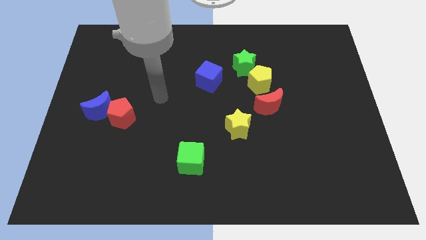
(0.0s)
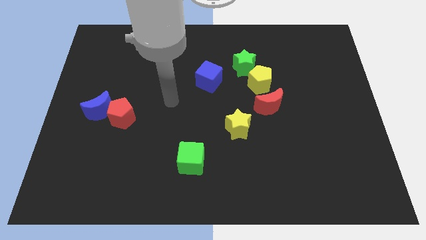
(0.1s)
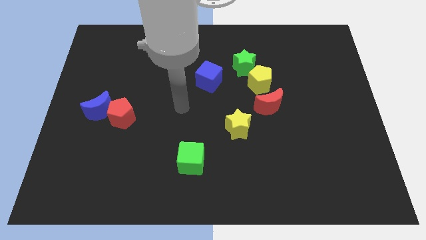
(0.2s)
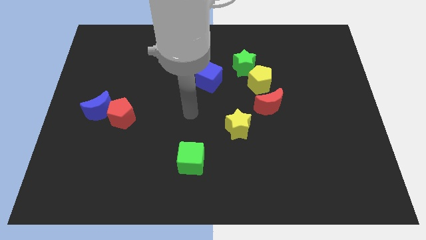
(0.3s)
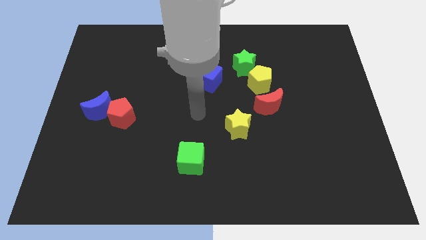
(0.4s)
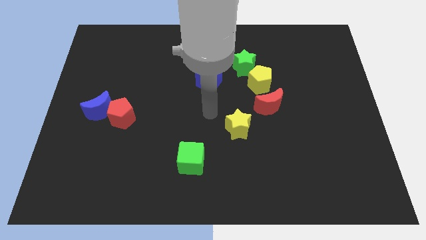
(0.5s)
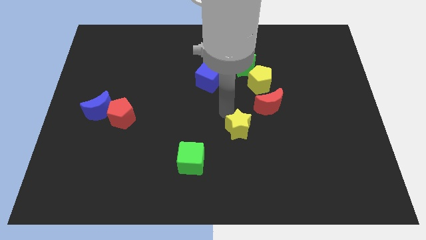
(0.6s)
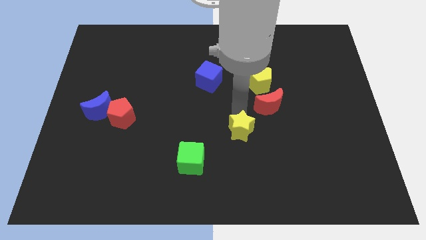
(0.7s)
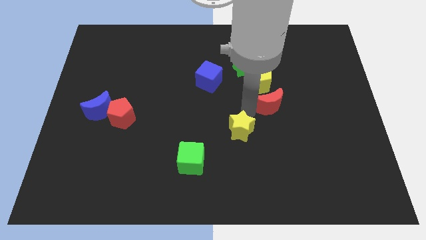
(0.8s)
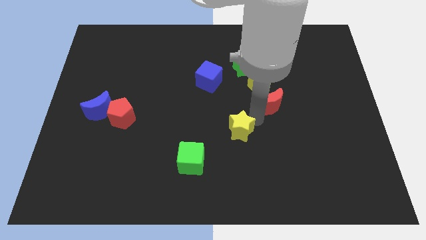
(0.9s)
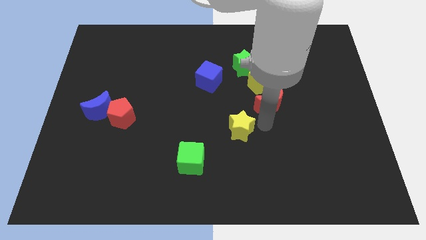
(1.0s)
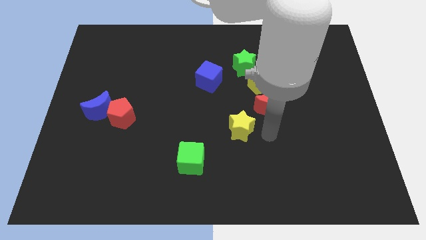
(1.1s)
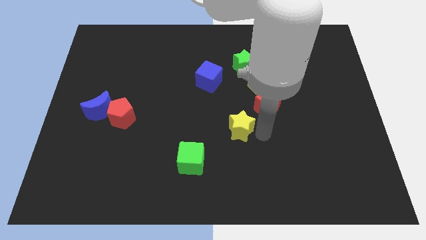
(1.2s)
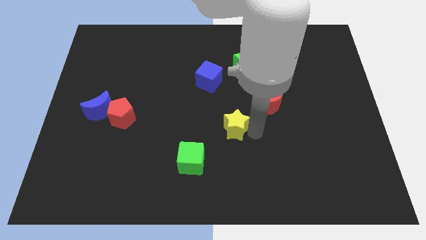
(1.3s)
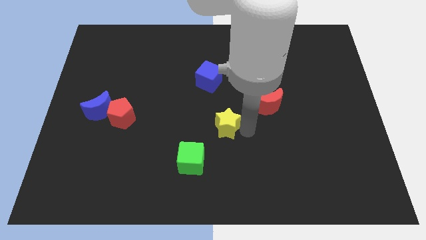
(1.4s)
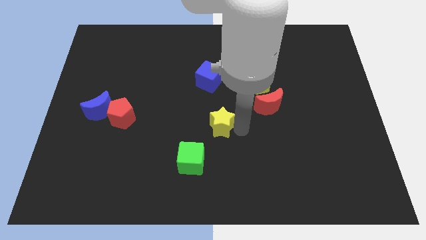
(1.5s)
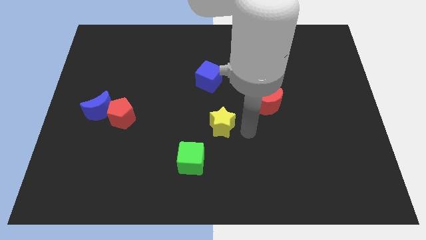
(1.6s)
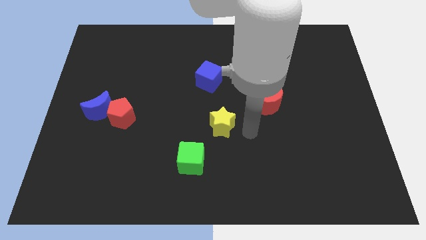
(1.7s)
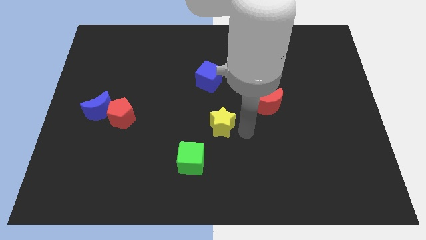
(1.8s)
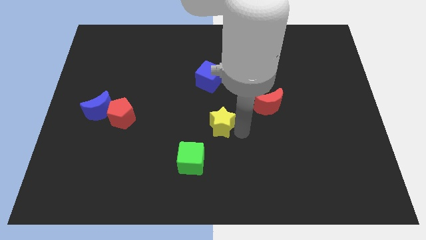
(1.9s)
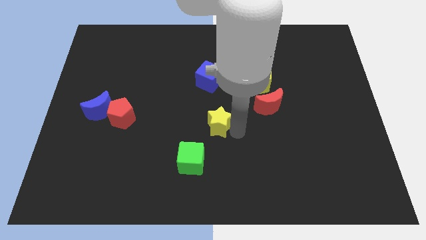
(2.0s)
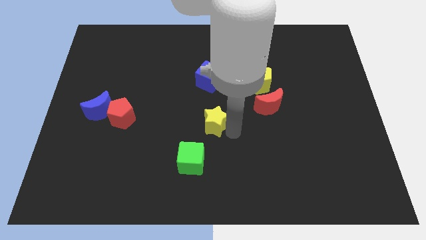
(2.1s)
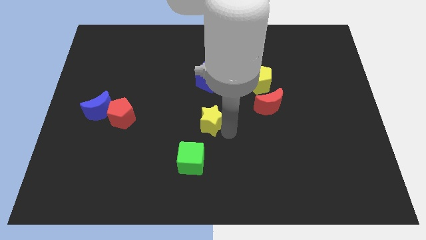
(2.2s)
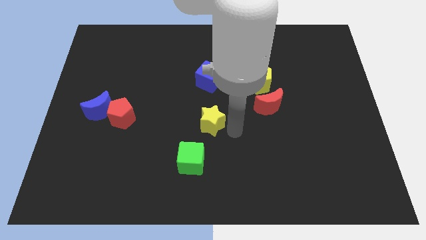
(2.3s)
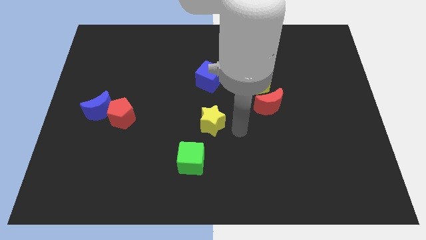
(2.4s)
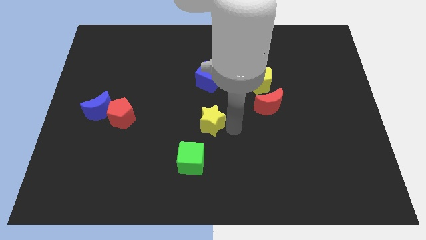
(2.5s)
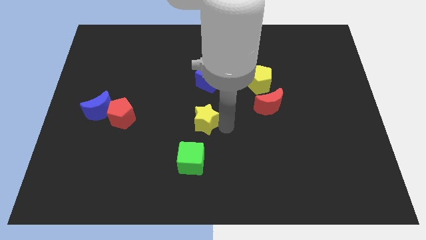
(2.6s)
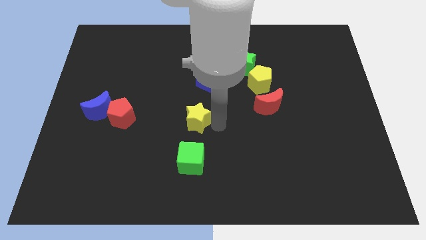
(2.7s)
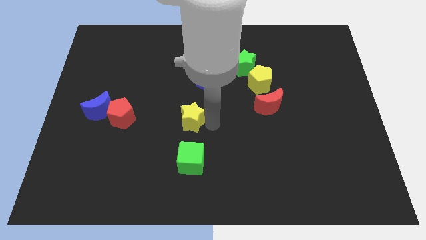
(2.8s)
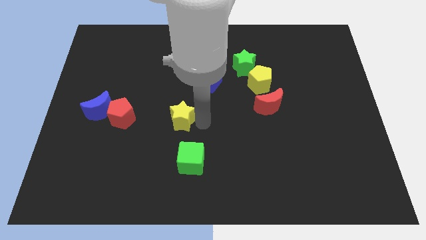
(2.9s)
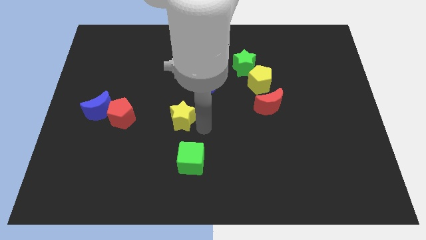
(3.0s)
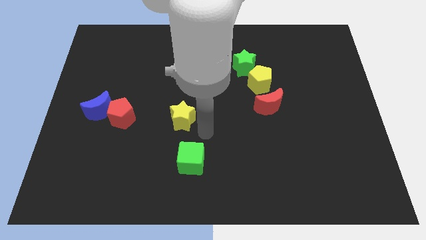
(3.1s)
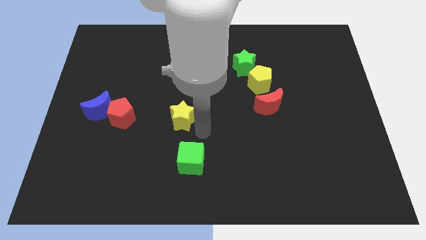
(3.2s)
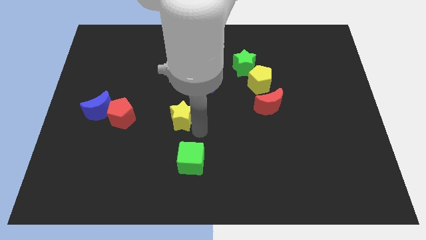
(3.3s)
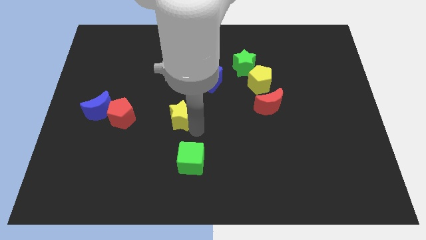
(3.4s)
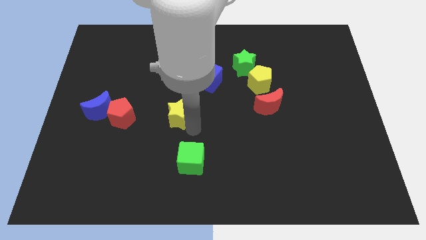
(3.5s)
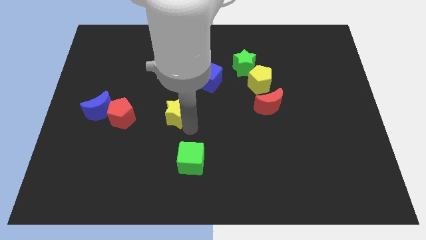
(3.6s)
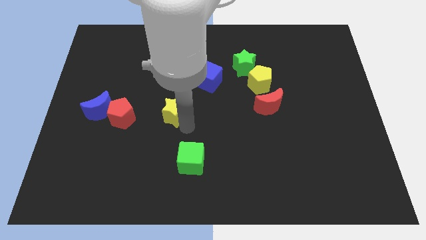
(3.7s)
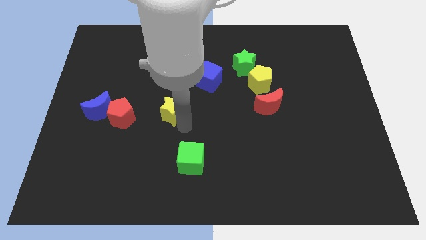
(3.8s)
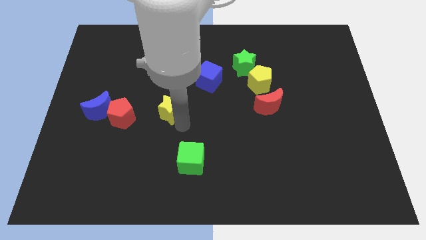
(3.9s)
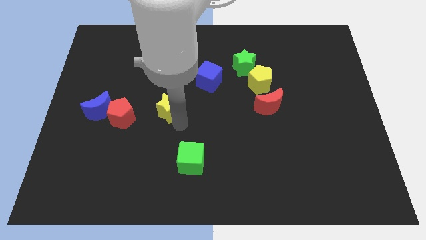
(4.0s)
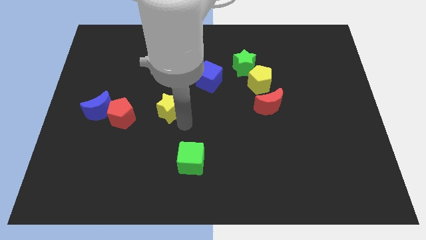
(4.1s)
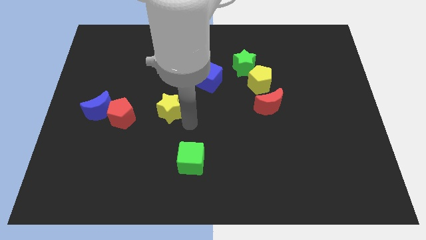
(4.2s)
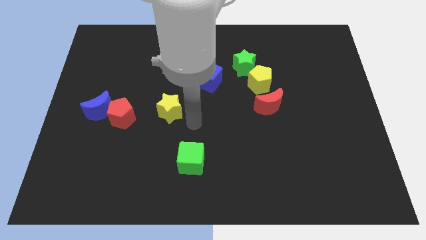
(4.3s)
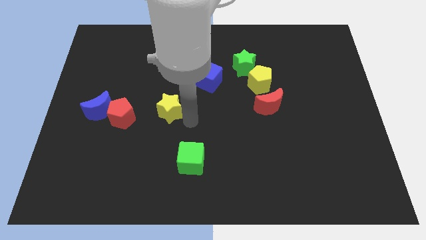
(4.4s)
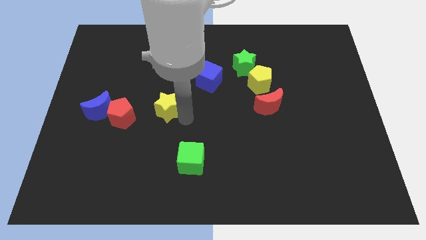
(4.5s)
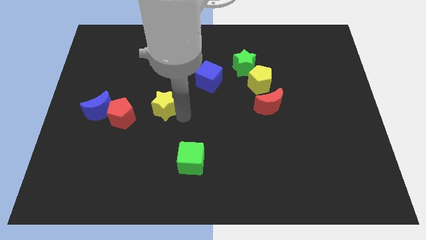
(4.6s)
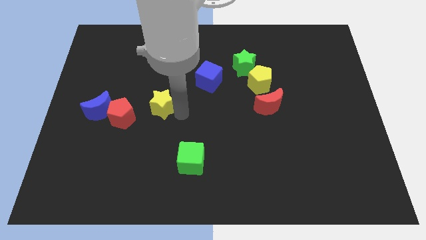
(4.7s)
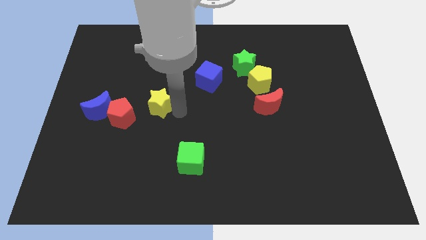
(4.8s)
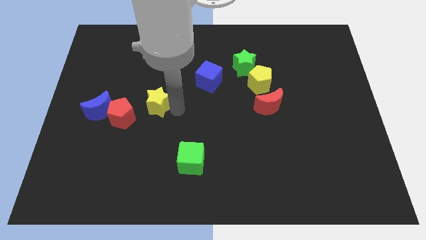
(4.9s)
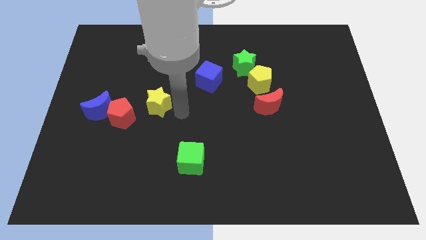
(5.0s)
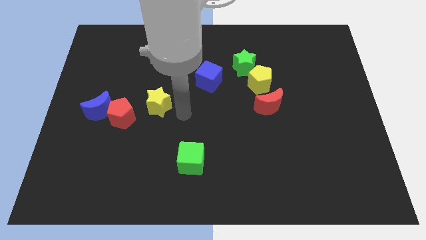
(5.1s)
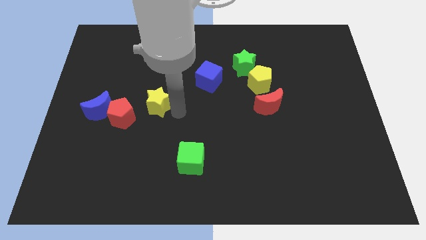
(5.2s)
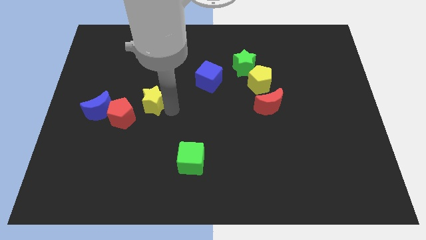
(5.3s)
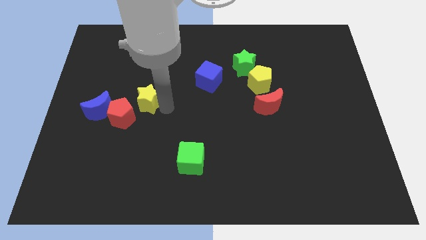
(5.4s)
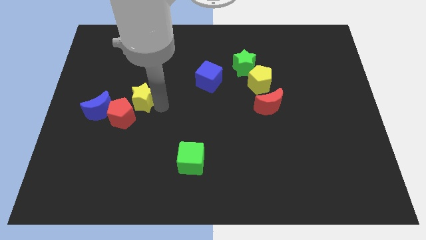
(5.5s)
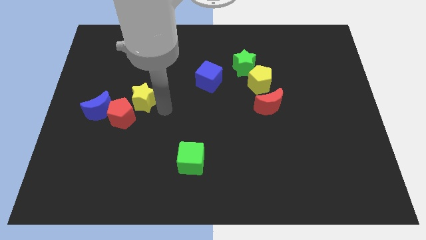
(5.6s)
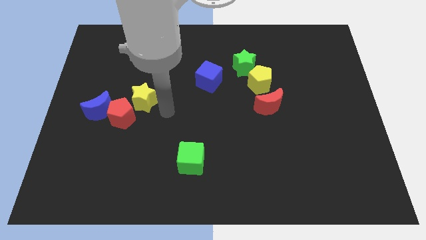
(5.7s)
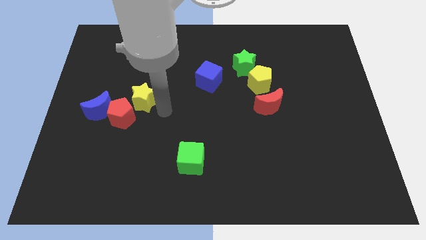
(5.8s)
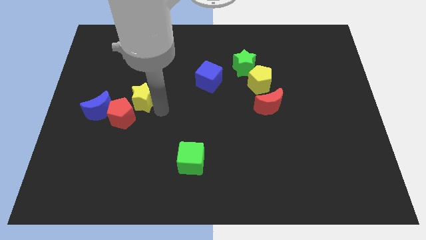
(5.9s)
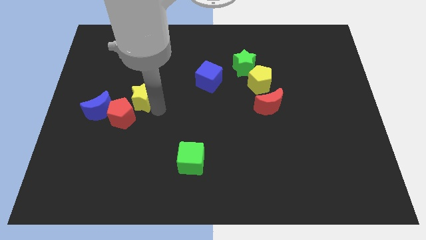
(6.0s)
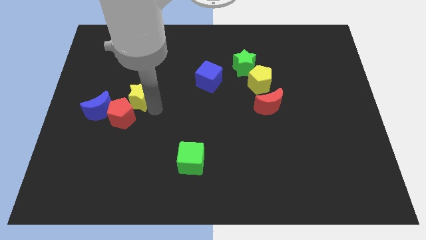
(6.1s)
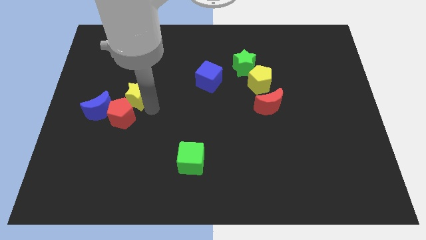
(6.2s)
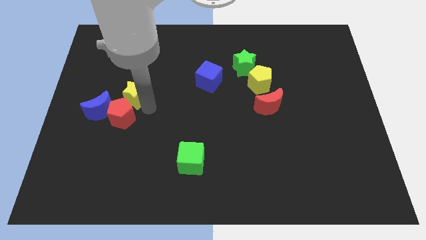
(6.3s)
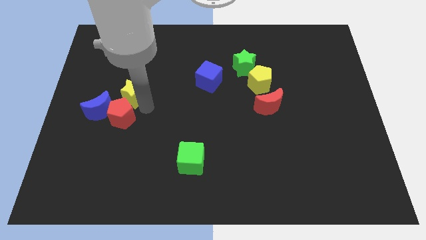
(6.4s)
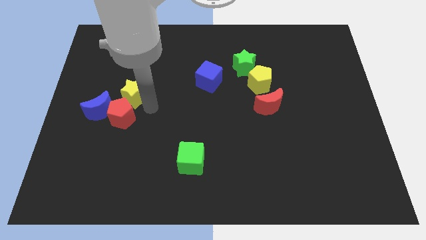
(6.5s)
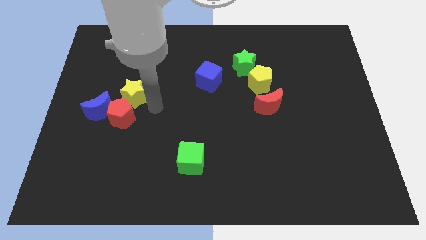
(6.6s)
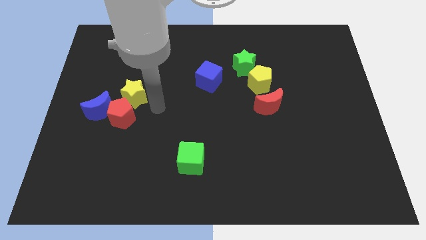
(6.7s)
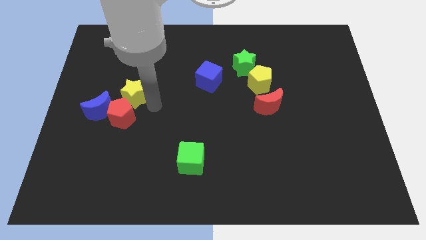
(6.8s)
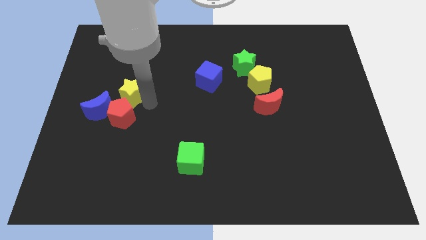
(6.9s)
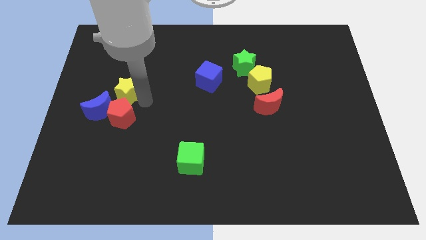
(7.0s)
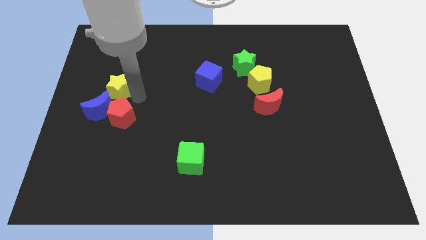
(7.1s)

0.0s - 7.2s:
push the yellow star to the top left of the red pentagon

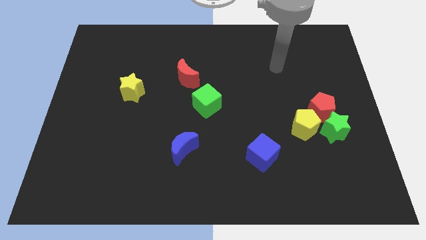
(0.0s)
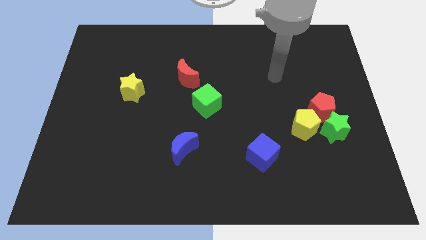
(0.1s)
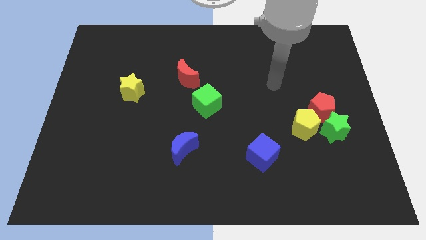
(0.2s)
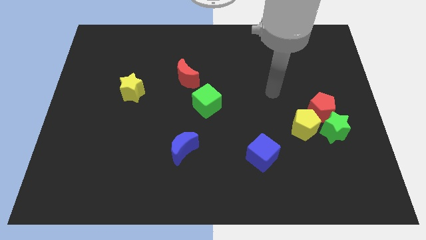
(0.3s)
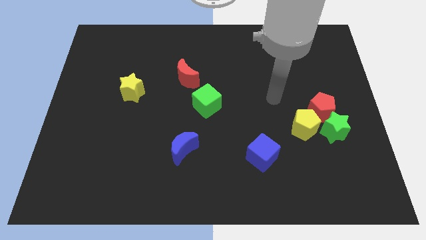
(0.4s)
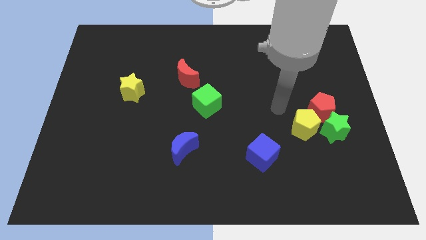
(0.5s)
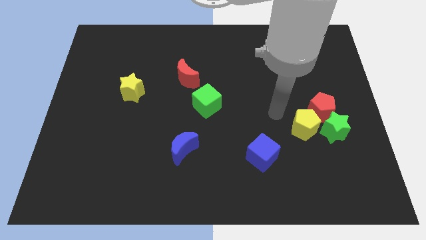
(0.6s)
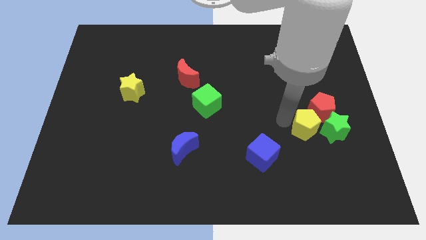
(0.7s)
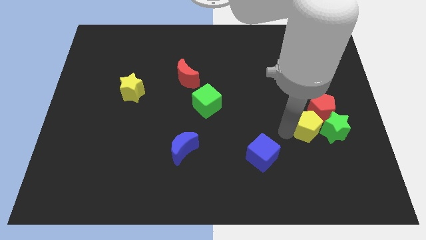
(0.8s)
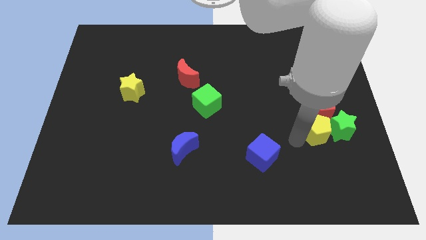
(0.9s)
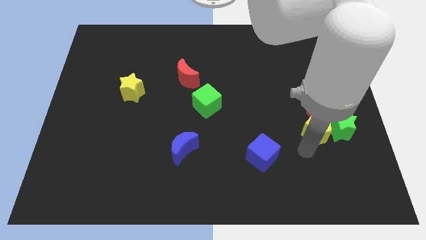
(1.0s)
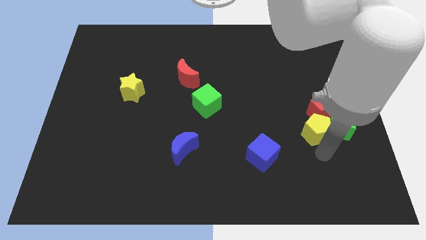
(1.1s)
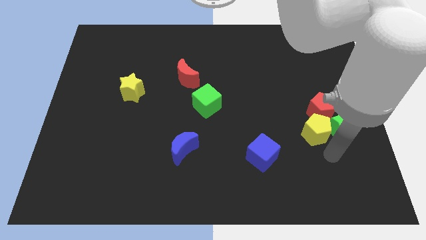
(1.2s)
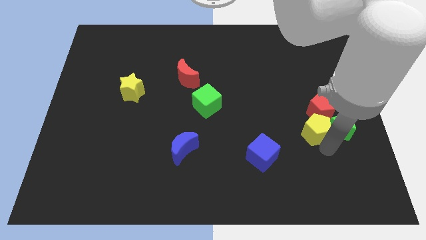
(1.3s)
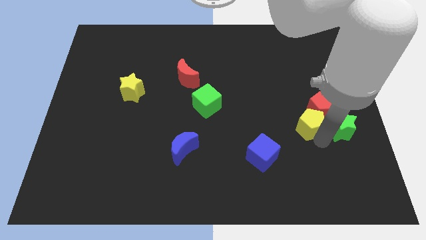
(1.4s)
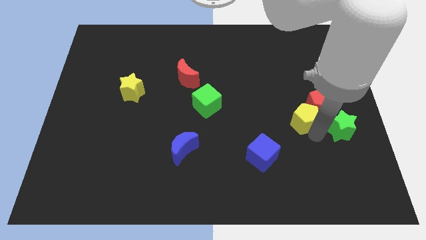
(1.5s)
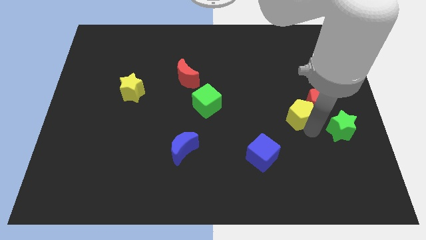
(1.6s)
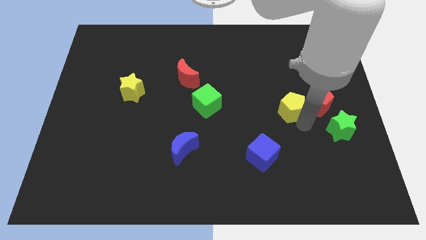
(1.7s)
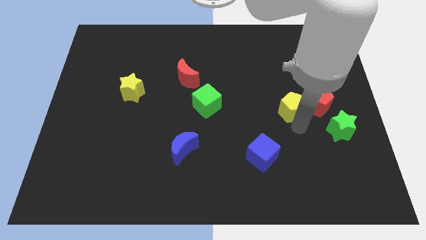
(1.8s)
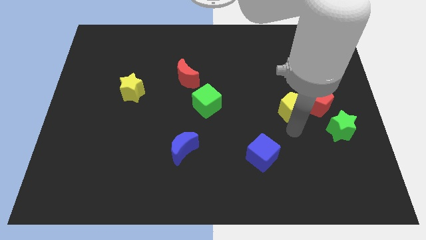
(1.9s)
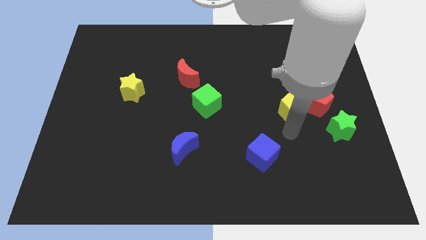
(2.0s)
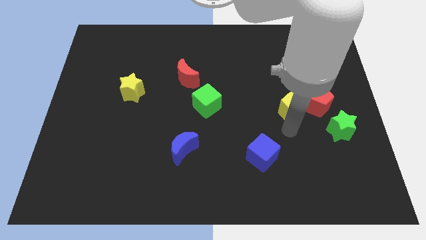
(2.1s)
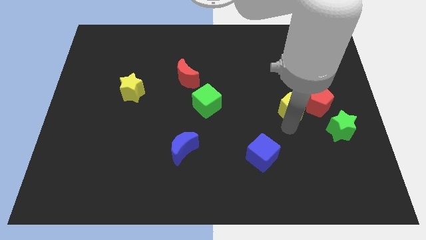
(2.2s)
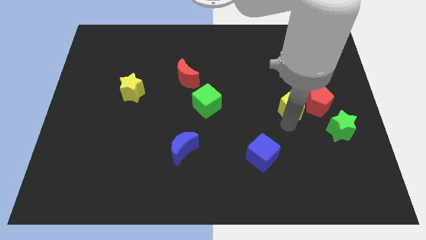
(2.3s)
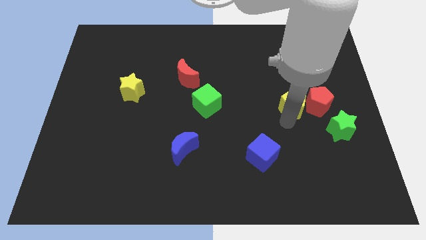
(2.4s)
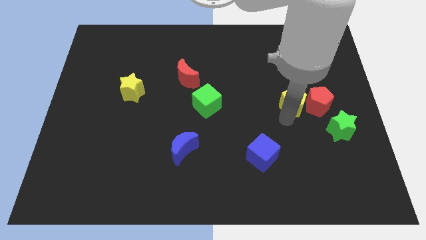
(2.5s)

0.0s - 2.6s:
put the yellow pentagon to the top left side of the red pentagon
